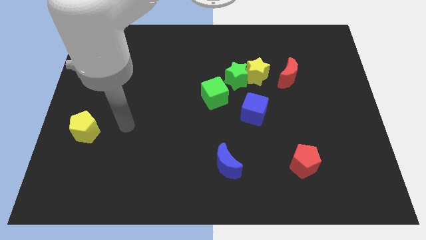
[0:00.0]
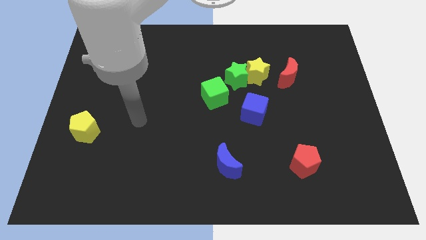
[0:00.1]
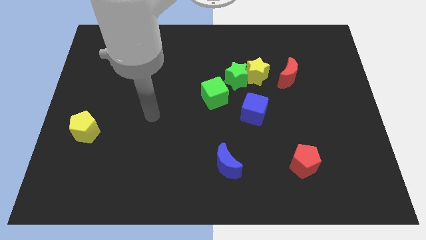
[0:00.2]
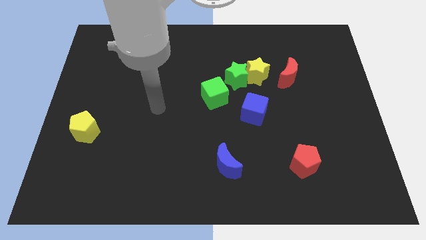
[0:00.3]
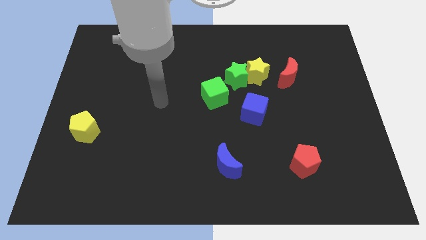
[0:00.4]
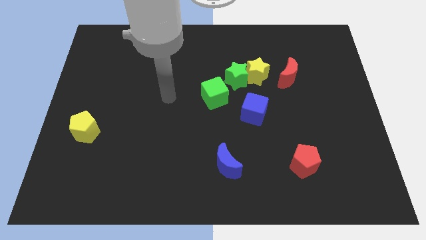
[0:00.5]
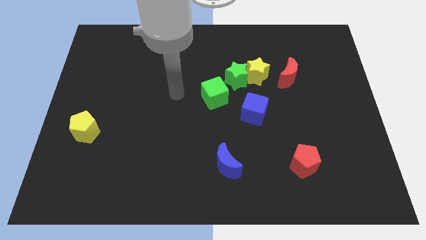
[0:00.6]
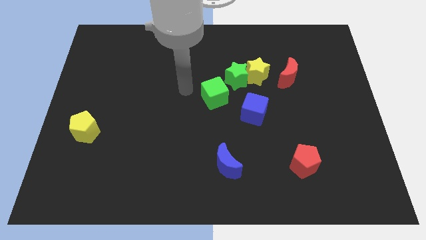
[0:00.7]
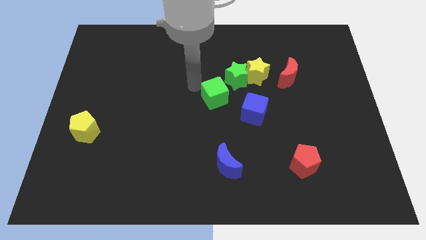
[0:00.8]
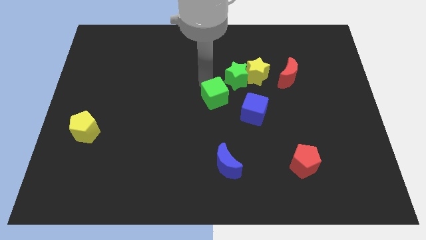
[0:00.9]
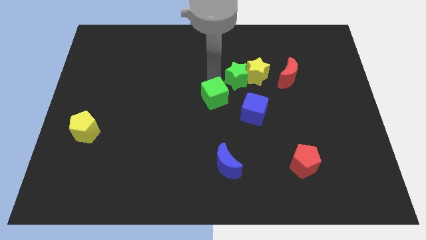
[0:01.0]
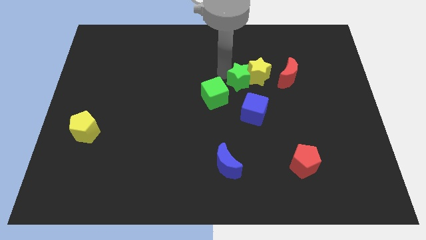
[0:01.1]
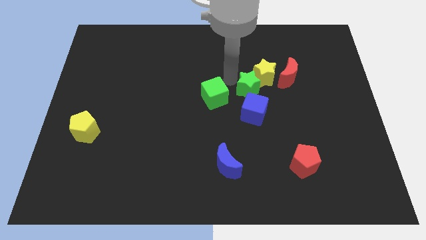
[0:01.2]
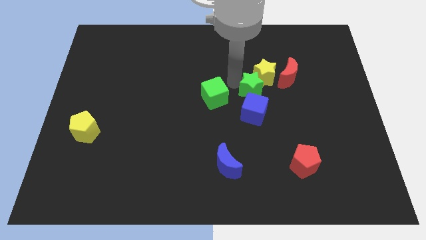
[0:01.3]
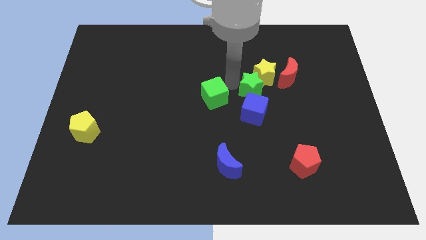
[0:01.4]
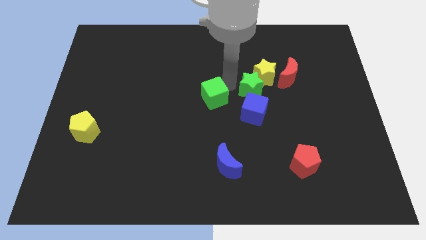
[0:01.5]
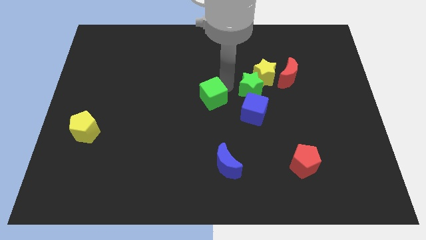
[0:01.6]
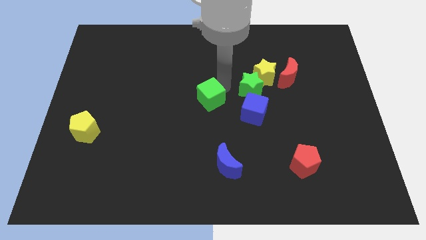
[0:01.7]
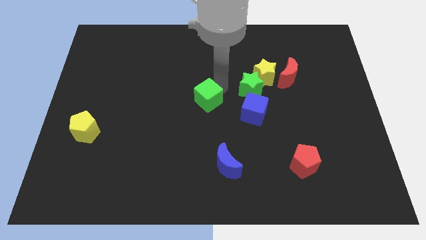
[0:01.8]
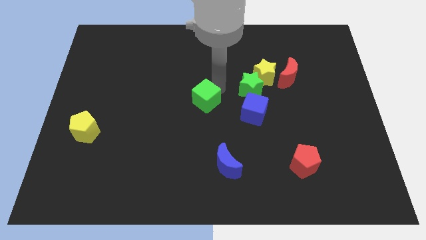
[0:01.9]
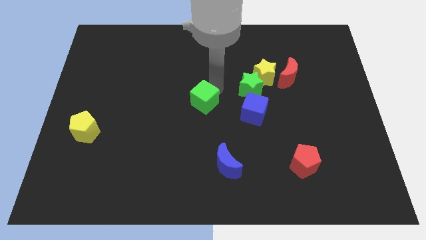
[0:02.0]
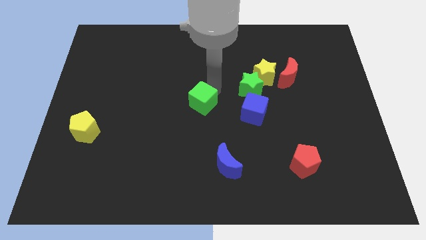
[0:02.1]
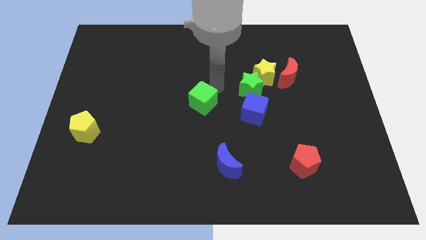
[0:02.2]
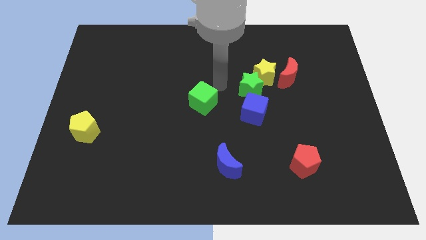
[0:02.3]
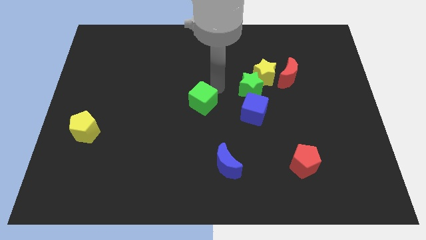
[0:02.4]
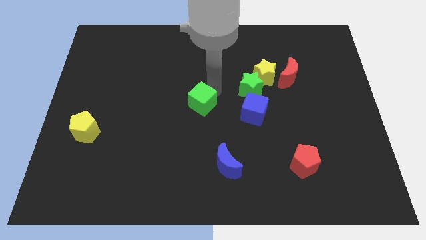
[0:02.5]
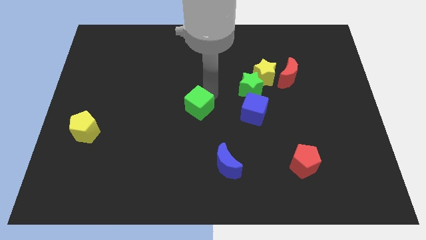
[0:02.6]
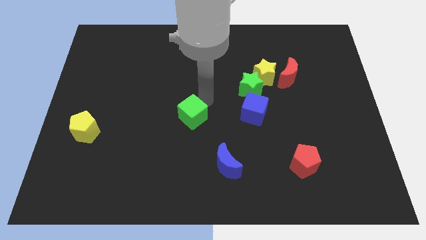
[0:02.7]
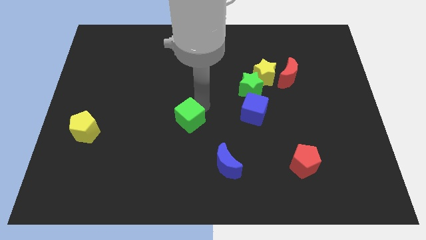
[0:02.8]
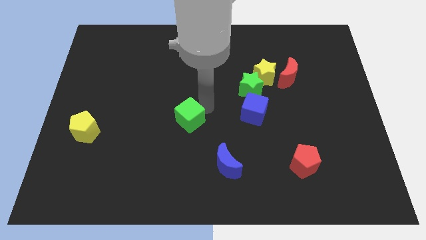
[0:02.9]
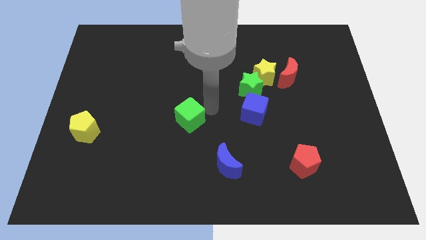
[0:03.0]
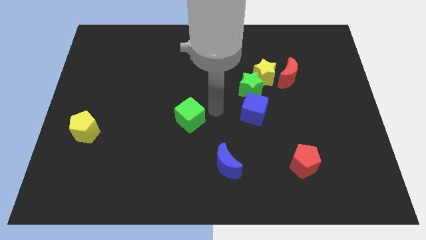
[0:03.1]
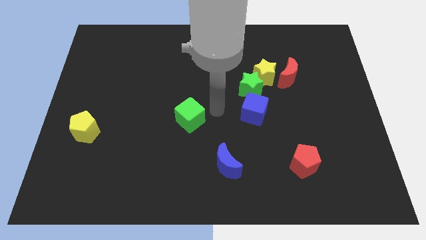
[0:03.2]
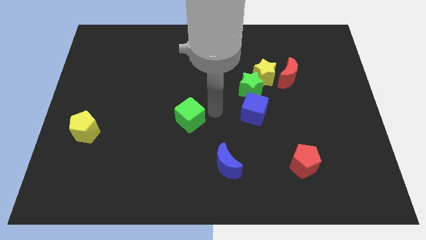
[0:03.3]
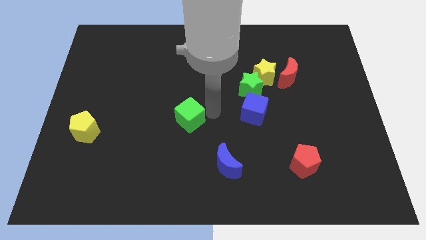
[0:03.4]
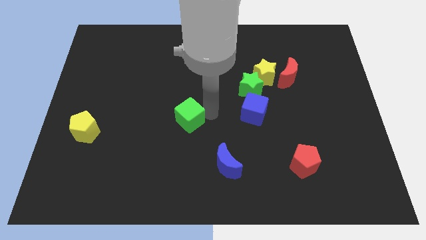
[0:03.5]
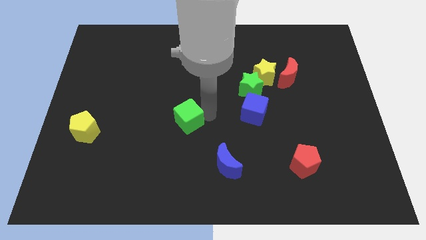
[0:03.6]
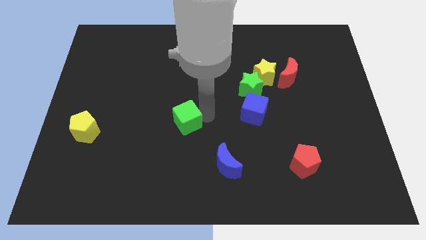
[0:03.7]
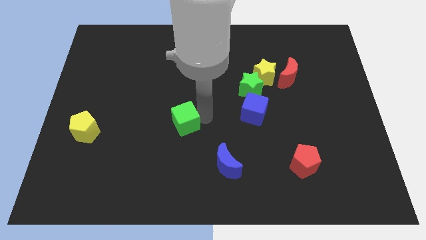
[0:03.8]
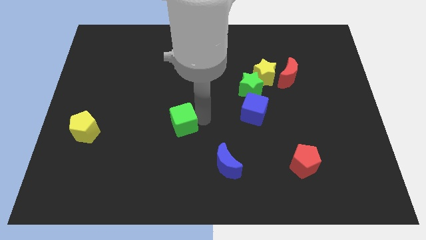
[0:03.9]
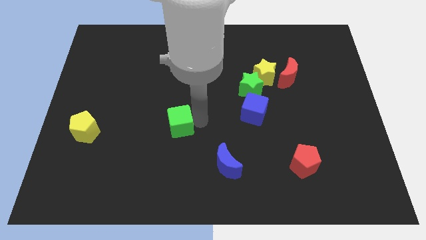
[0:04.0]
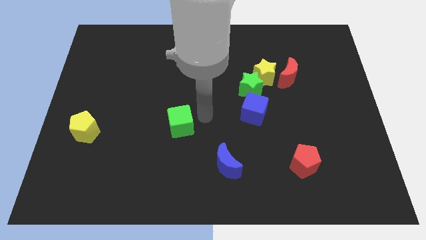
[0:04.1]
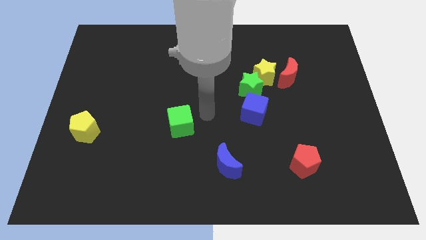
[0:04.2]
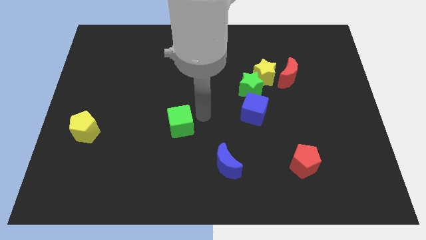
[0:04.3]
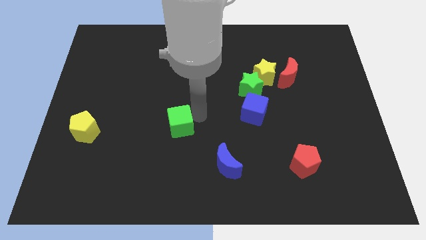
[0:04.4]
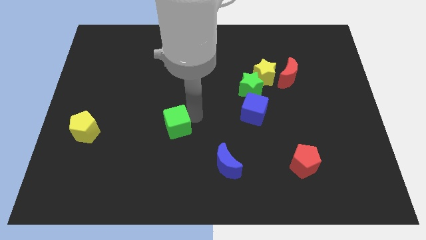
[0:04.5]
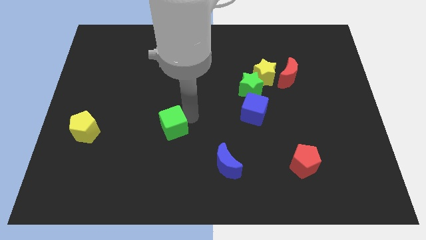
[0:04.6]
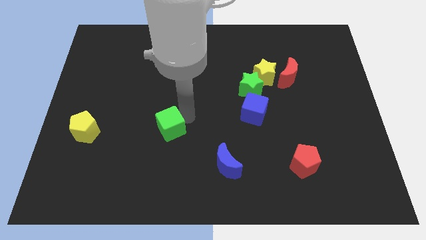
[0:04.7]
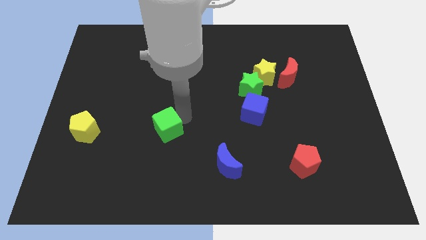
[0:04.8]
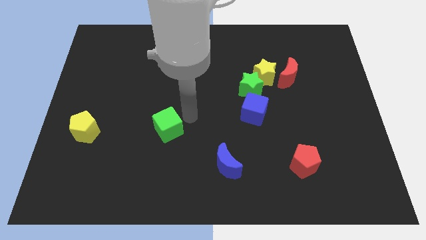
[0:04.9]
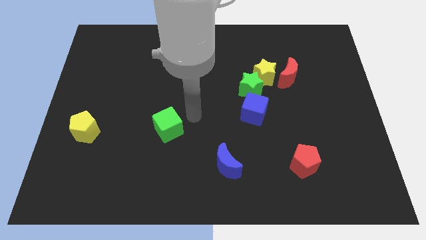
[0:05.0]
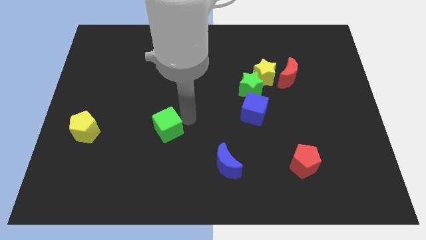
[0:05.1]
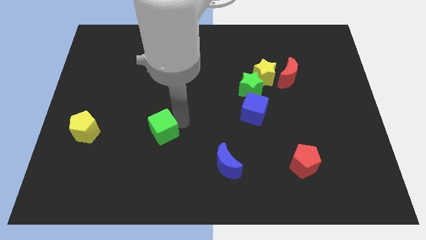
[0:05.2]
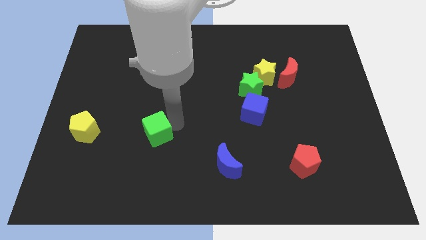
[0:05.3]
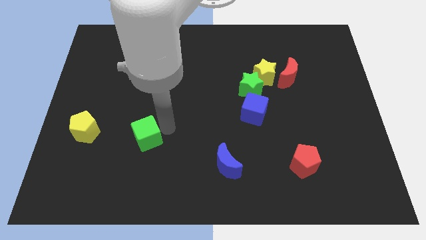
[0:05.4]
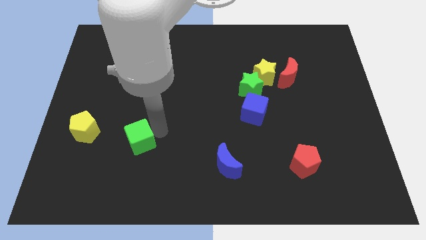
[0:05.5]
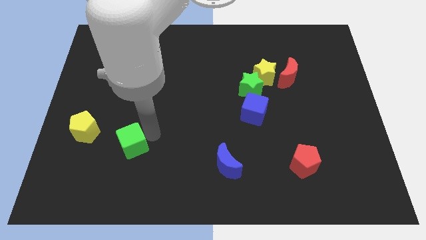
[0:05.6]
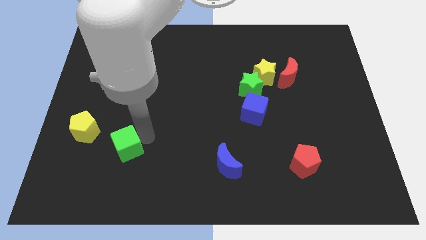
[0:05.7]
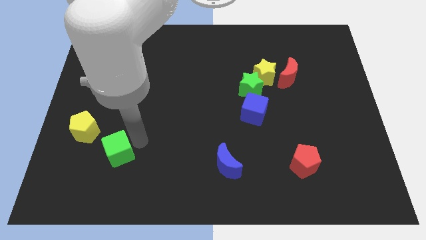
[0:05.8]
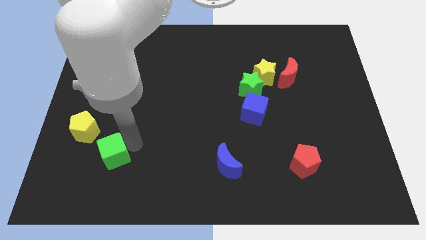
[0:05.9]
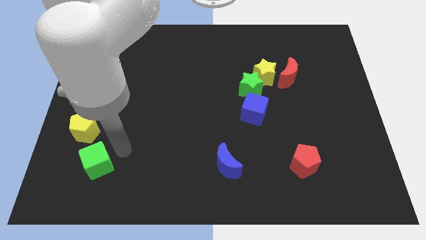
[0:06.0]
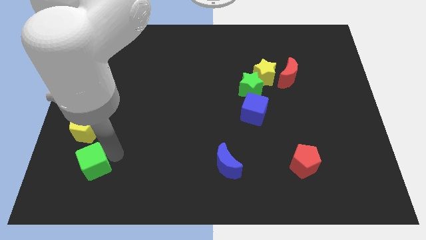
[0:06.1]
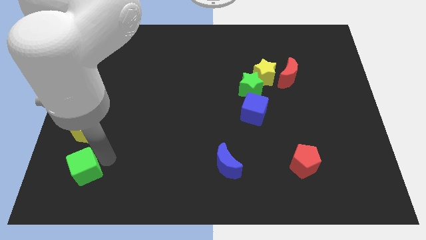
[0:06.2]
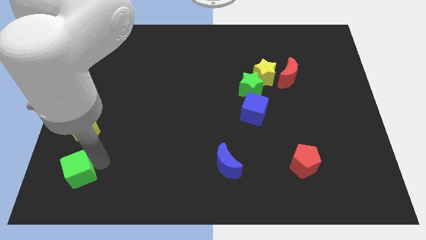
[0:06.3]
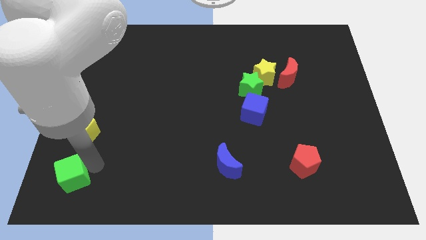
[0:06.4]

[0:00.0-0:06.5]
push the green cube to the bottom left corner

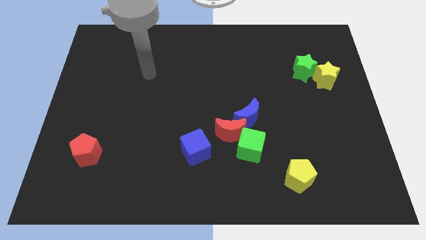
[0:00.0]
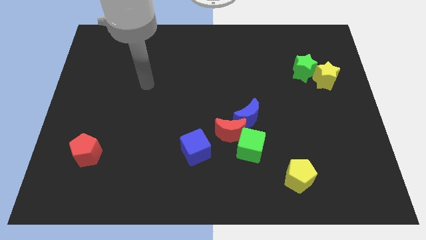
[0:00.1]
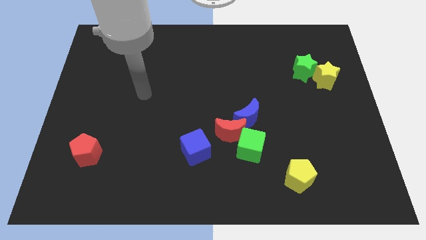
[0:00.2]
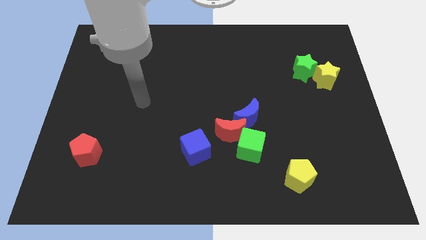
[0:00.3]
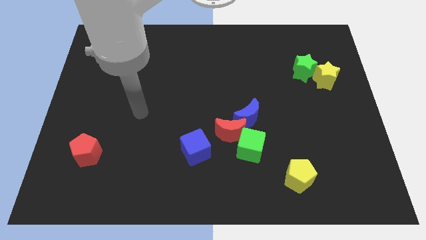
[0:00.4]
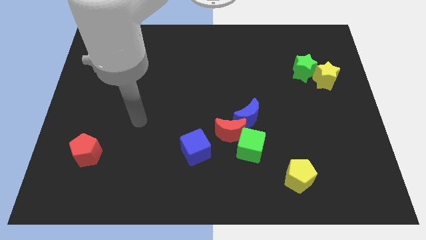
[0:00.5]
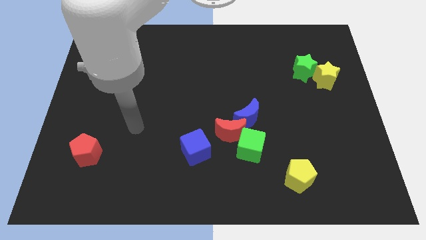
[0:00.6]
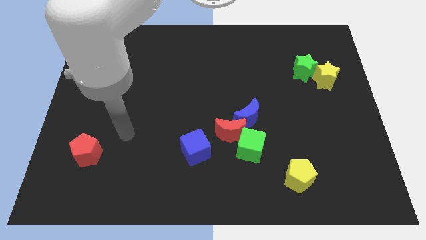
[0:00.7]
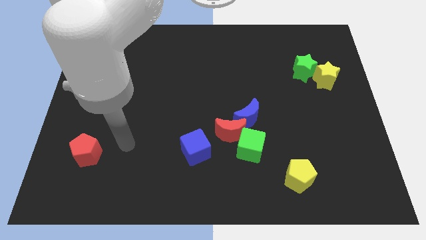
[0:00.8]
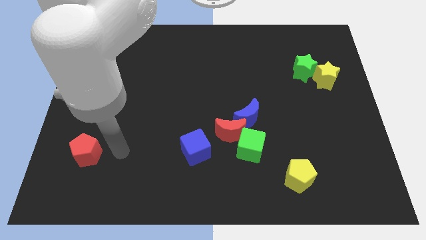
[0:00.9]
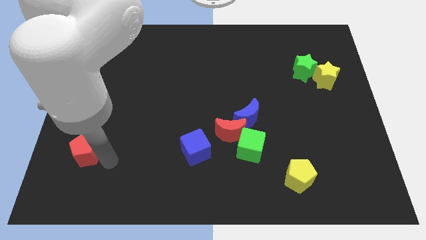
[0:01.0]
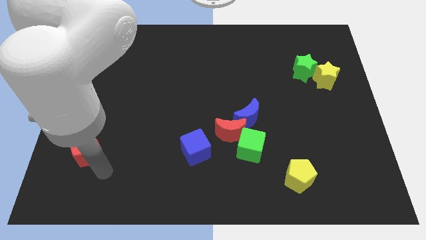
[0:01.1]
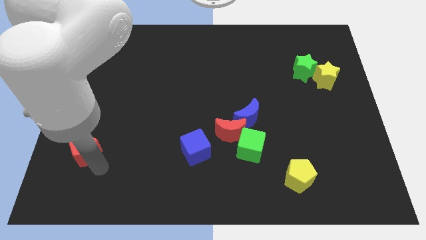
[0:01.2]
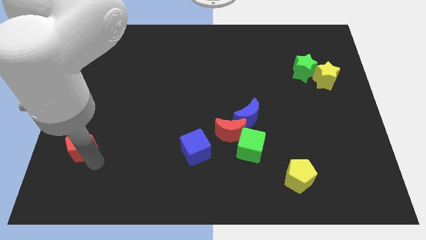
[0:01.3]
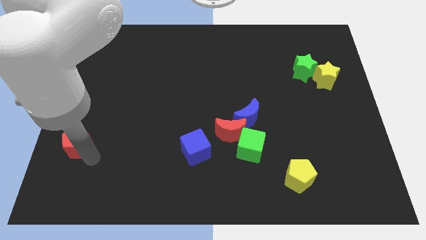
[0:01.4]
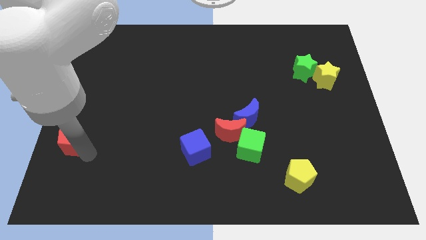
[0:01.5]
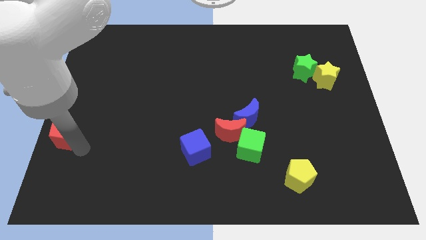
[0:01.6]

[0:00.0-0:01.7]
put the red pentagon to the left side of the board

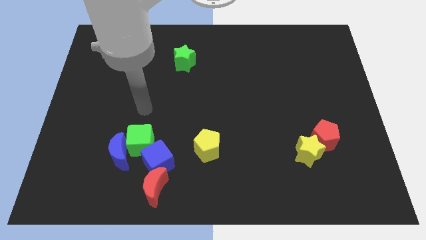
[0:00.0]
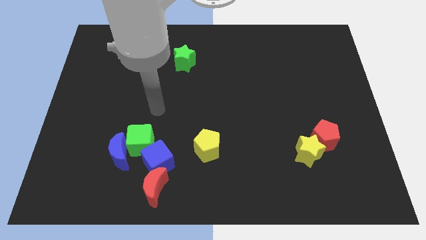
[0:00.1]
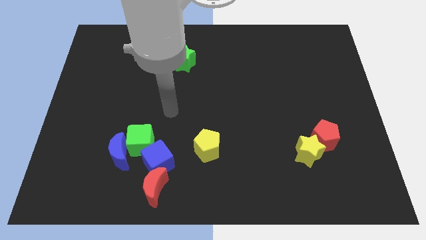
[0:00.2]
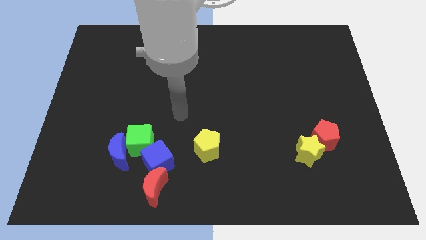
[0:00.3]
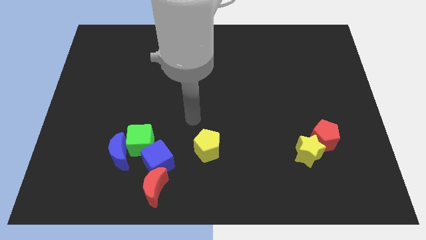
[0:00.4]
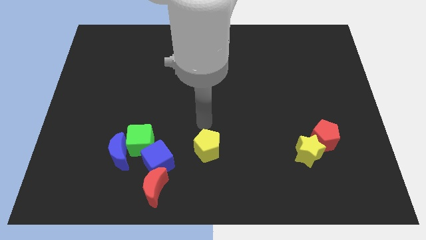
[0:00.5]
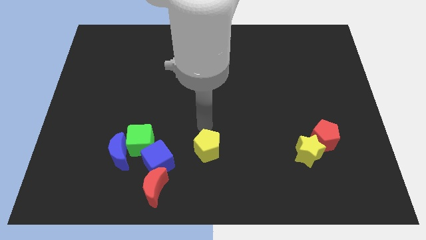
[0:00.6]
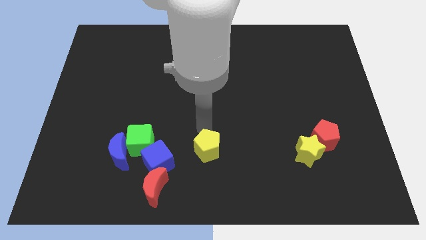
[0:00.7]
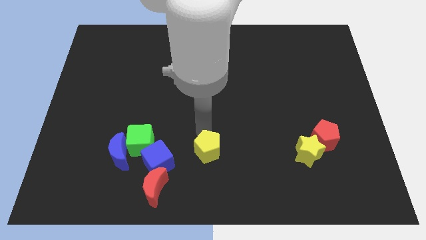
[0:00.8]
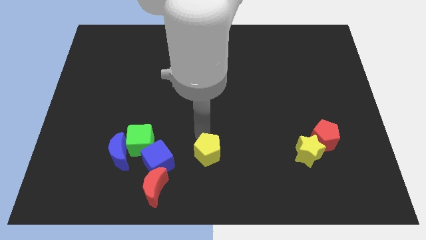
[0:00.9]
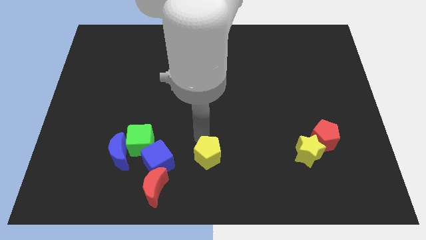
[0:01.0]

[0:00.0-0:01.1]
push the yellow pentagon to the bottom
